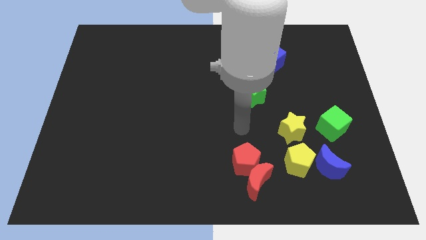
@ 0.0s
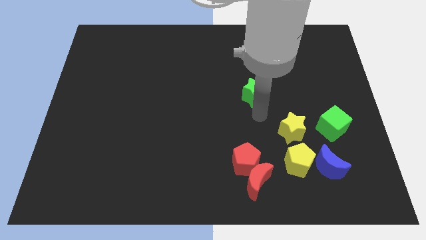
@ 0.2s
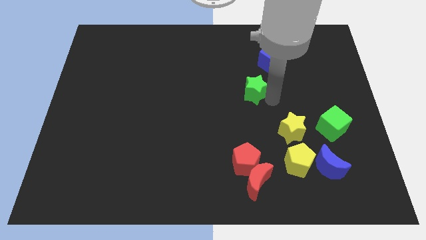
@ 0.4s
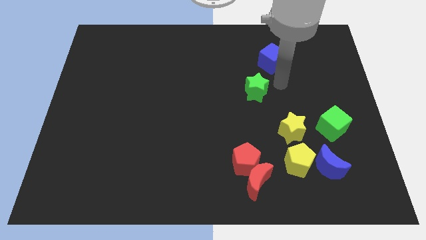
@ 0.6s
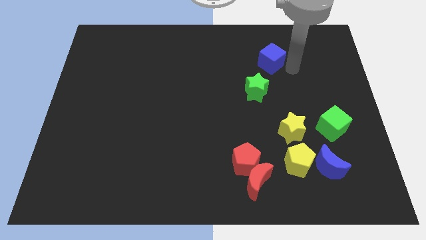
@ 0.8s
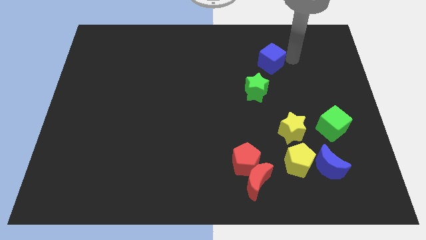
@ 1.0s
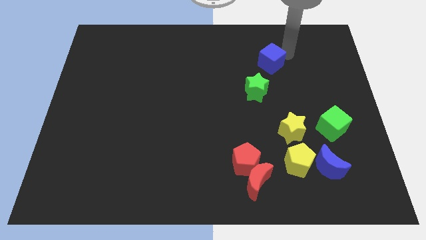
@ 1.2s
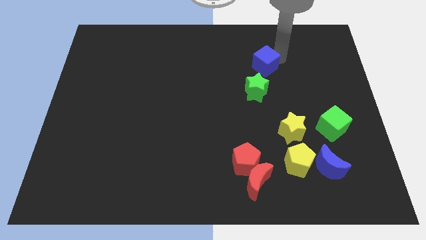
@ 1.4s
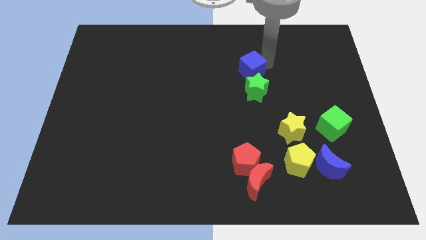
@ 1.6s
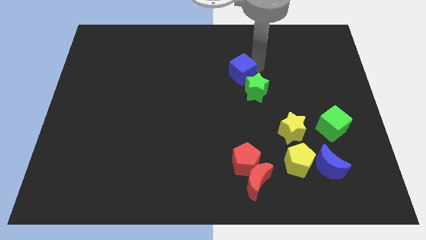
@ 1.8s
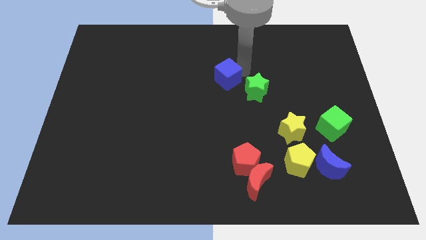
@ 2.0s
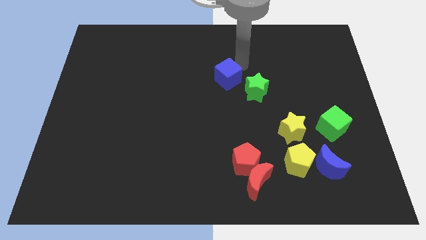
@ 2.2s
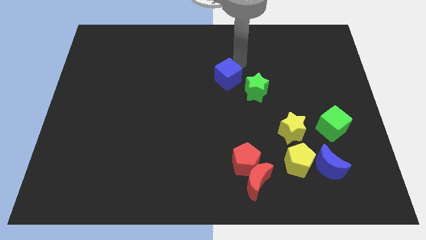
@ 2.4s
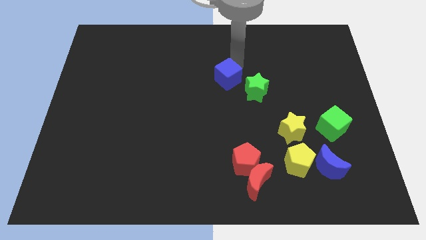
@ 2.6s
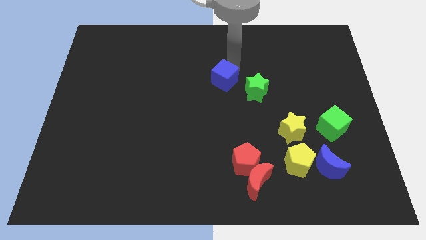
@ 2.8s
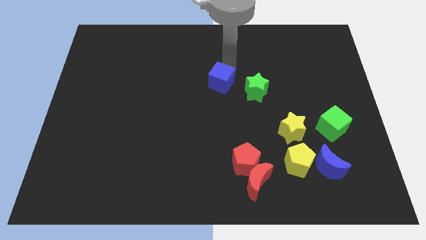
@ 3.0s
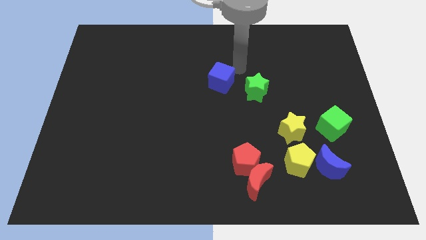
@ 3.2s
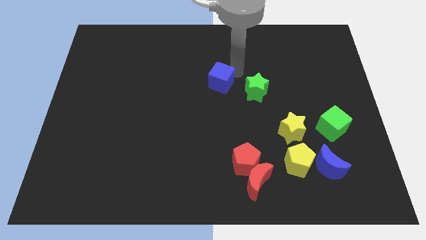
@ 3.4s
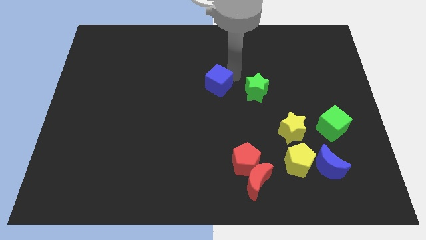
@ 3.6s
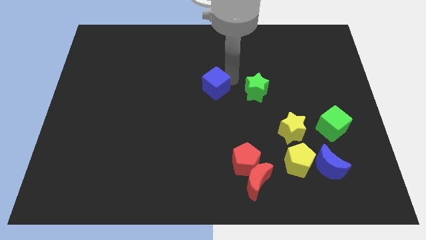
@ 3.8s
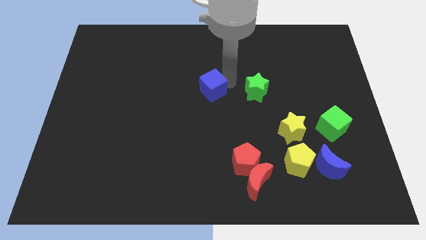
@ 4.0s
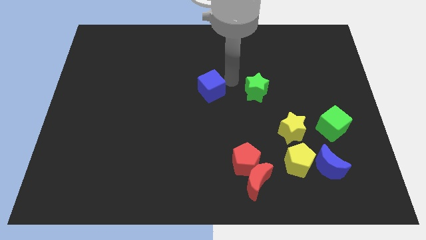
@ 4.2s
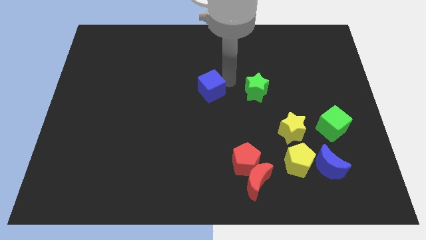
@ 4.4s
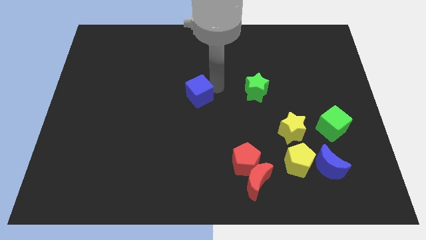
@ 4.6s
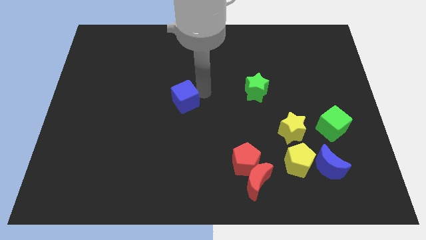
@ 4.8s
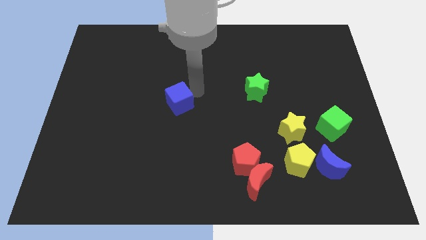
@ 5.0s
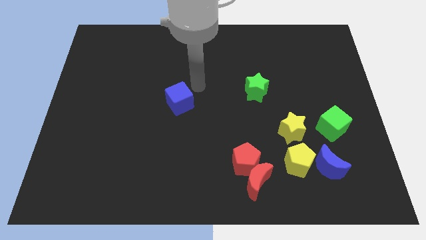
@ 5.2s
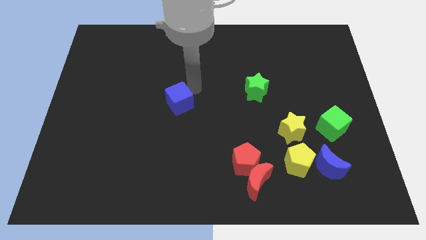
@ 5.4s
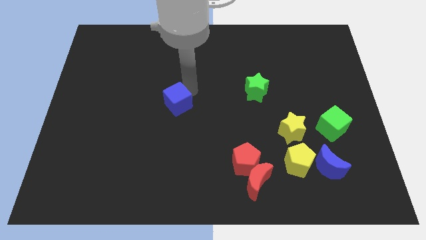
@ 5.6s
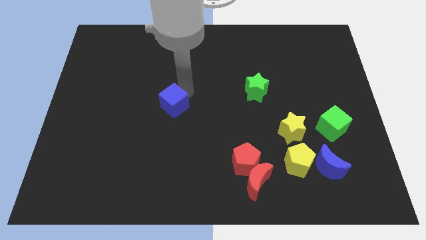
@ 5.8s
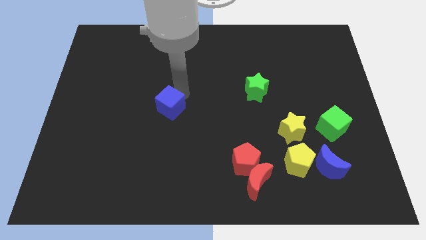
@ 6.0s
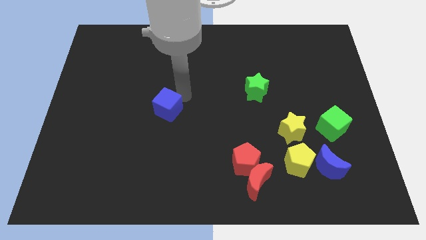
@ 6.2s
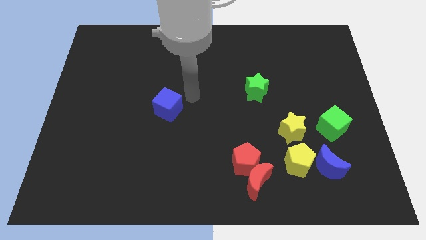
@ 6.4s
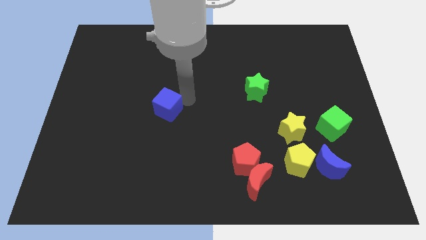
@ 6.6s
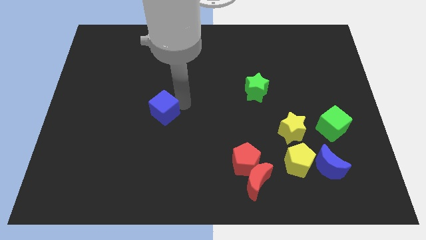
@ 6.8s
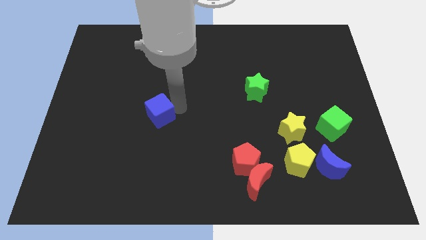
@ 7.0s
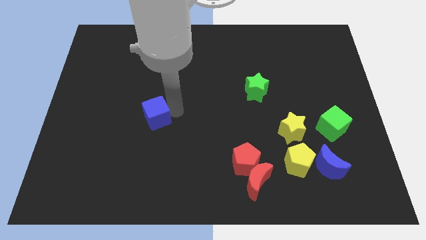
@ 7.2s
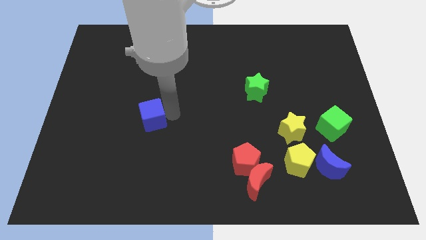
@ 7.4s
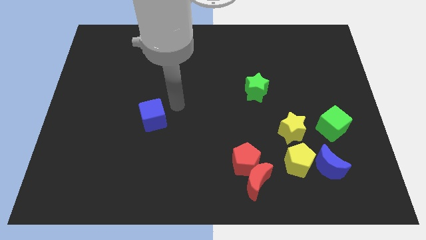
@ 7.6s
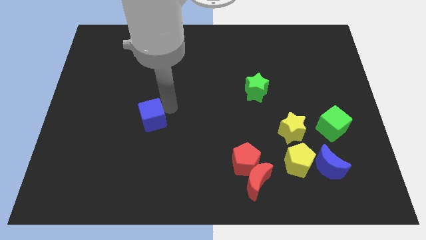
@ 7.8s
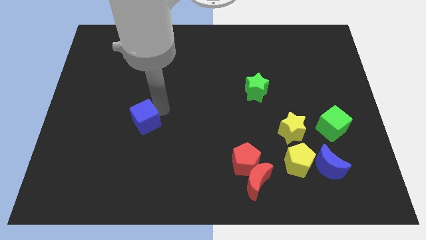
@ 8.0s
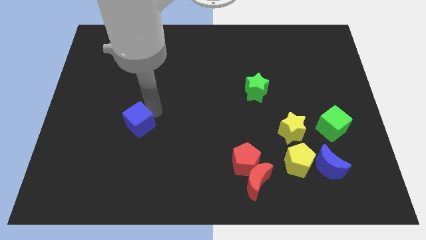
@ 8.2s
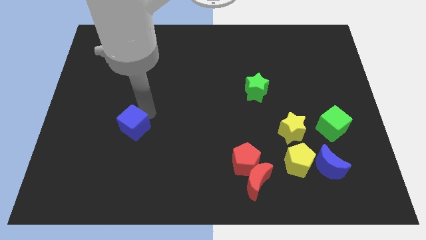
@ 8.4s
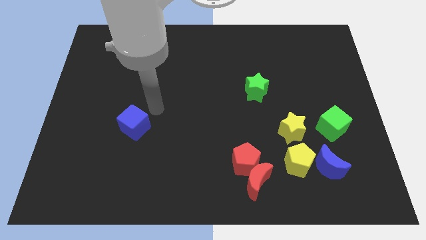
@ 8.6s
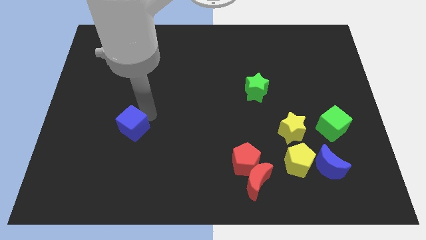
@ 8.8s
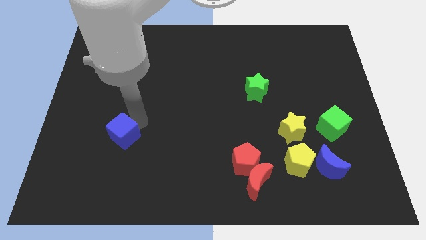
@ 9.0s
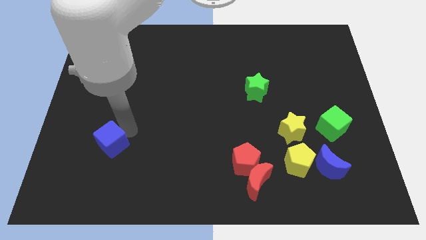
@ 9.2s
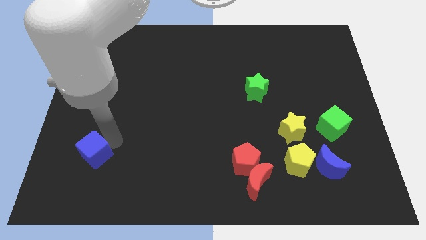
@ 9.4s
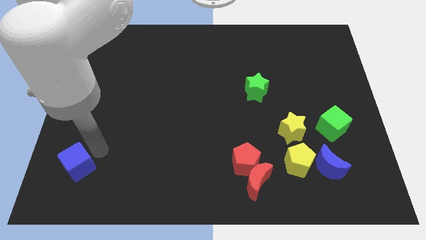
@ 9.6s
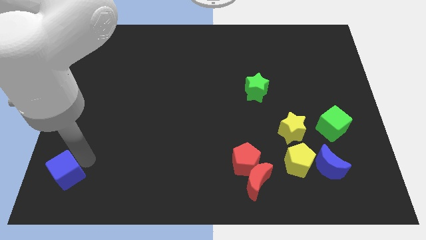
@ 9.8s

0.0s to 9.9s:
put the blue cube to the bottom left of the board

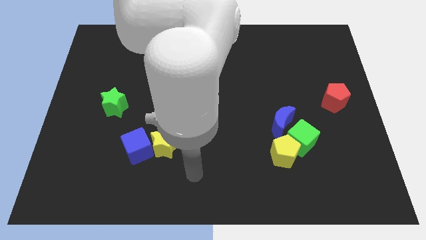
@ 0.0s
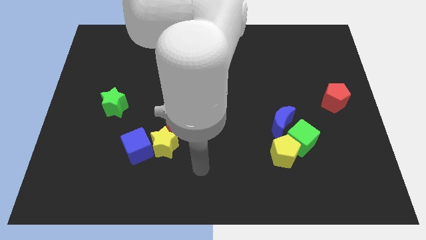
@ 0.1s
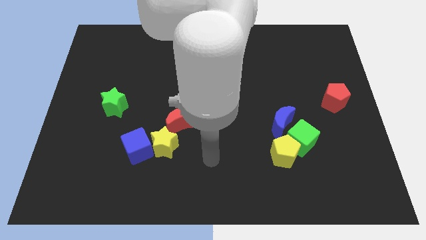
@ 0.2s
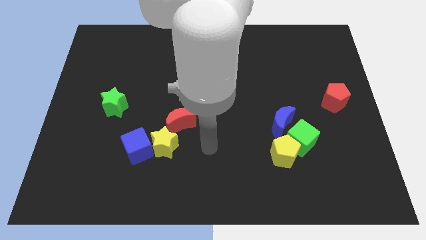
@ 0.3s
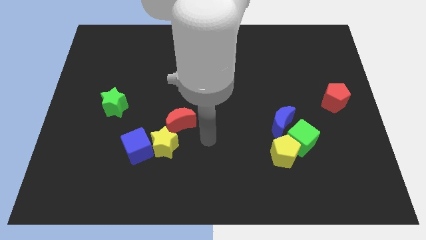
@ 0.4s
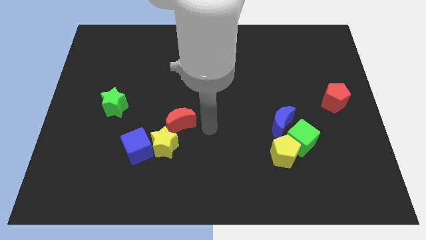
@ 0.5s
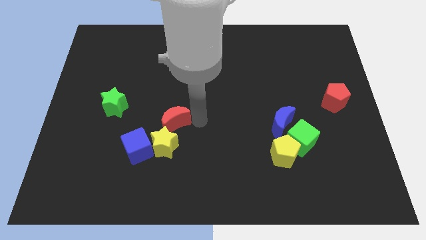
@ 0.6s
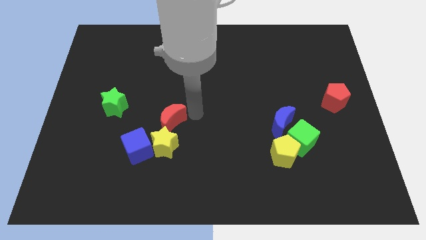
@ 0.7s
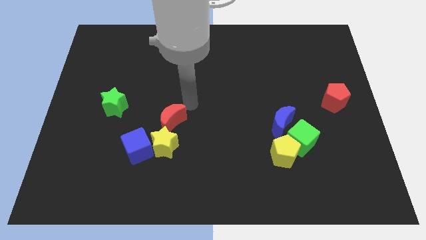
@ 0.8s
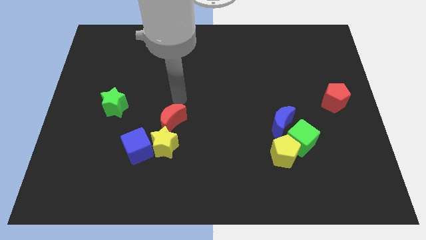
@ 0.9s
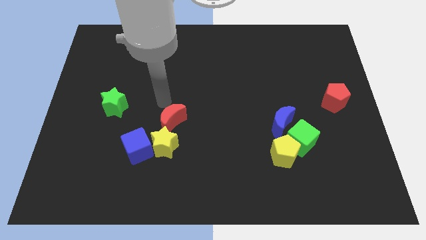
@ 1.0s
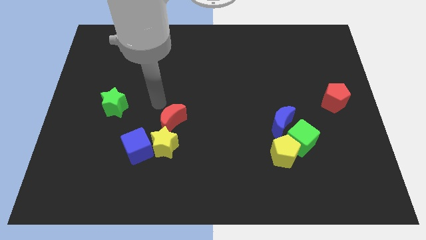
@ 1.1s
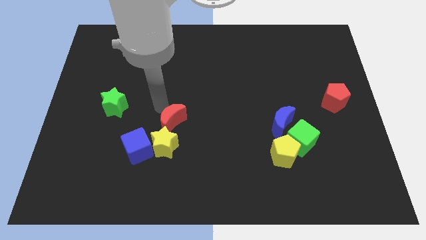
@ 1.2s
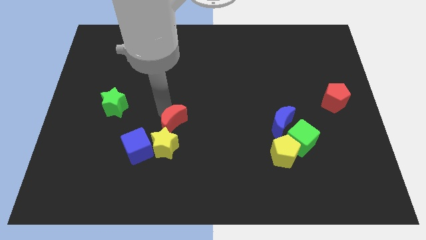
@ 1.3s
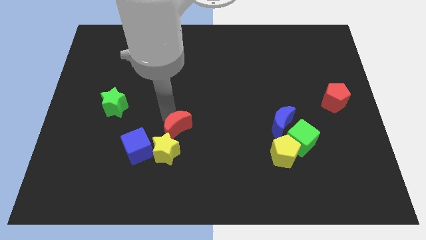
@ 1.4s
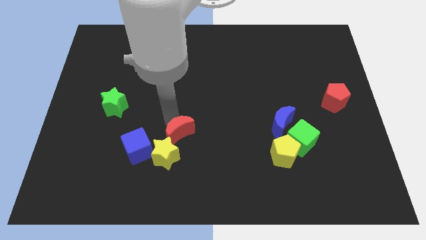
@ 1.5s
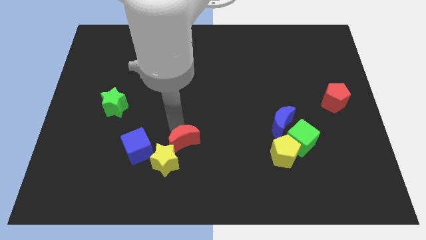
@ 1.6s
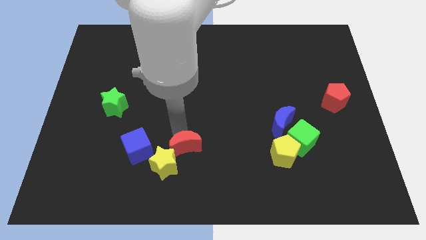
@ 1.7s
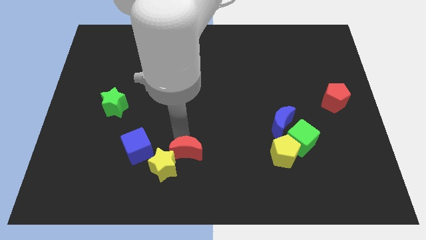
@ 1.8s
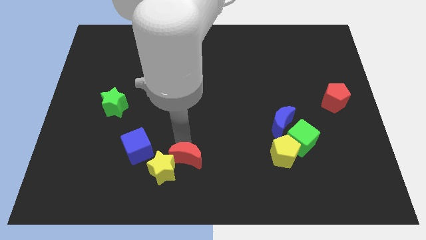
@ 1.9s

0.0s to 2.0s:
push the red moon to the bottom
